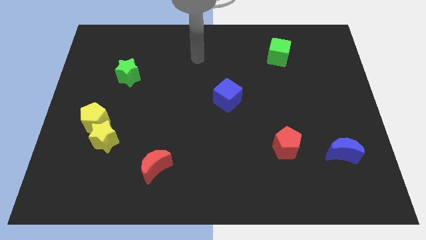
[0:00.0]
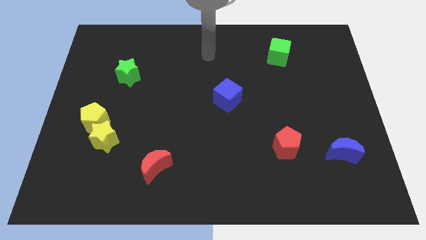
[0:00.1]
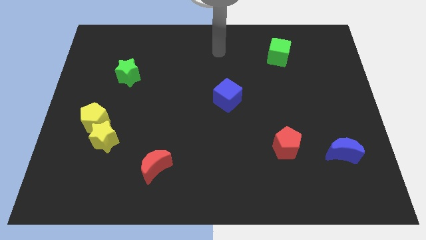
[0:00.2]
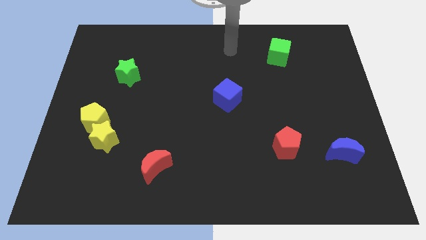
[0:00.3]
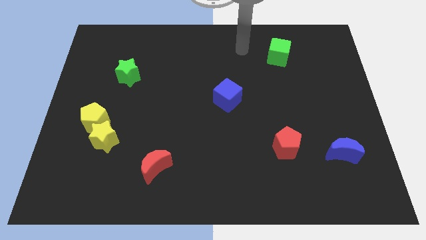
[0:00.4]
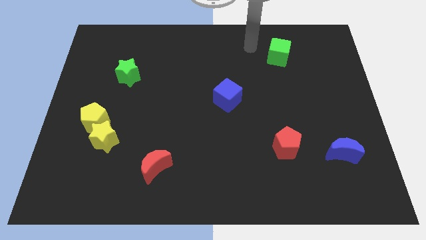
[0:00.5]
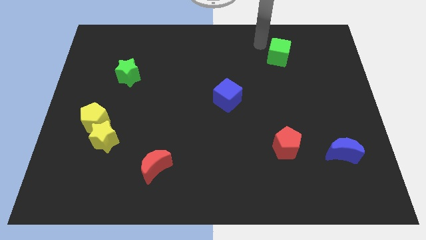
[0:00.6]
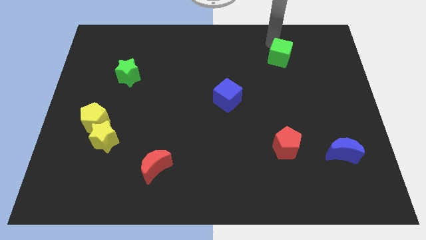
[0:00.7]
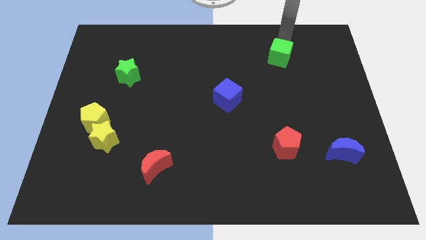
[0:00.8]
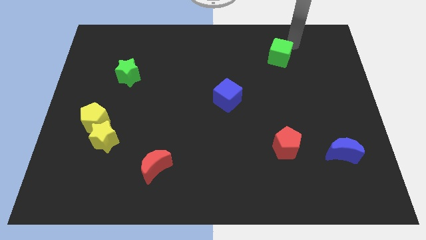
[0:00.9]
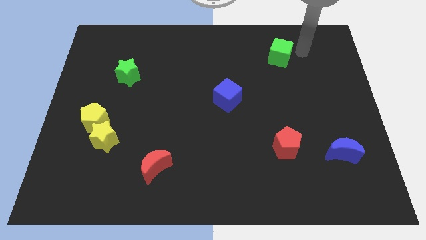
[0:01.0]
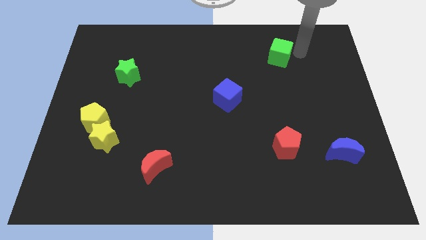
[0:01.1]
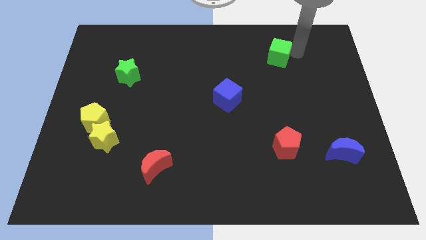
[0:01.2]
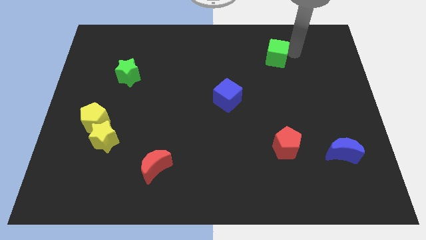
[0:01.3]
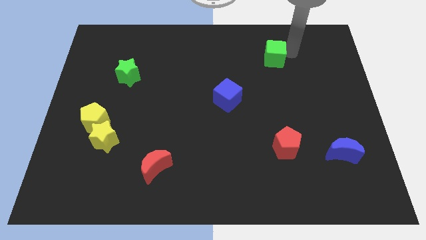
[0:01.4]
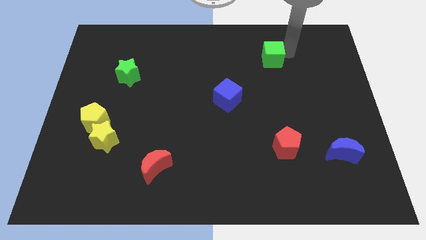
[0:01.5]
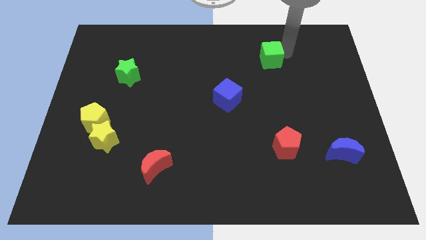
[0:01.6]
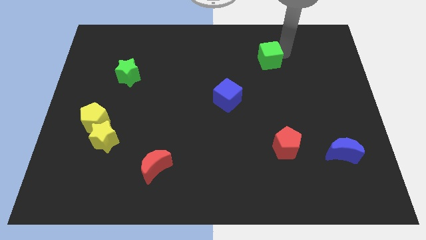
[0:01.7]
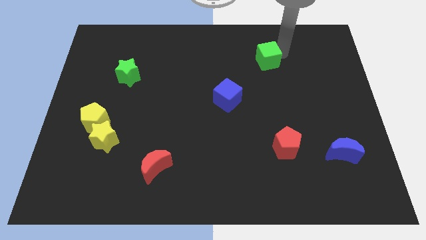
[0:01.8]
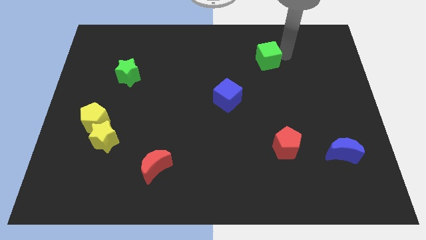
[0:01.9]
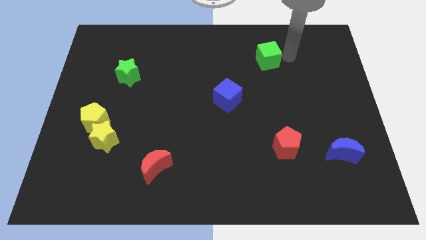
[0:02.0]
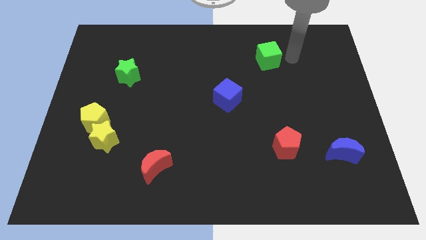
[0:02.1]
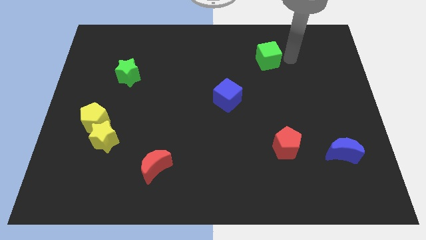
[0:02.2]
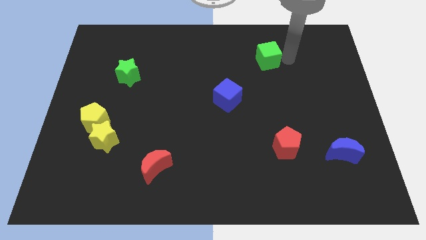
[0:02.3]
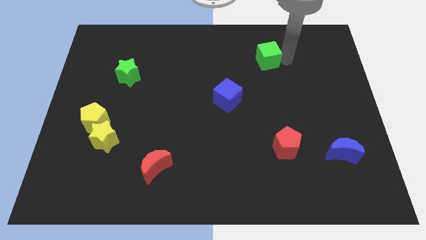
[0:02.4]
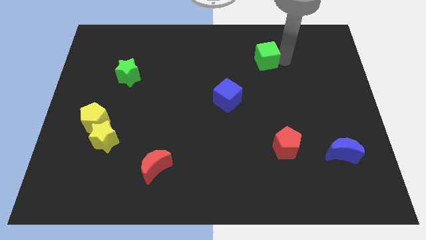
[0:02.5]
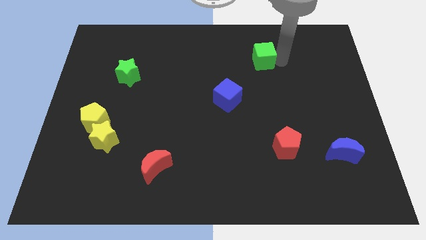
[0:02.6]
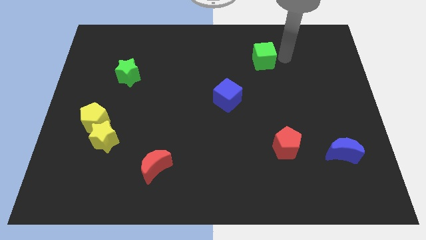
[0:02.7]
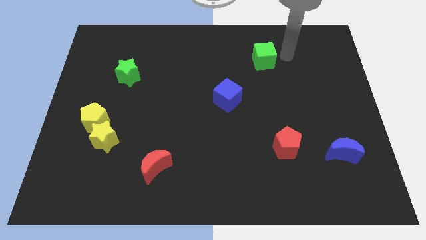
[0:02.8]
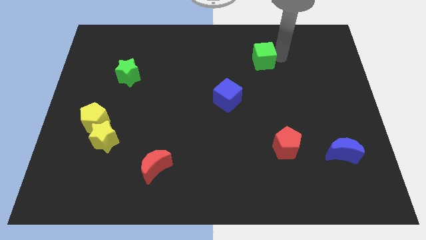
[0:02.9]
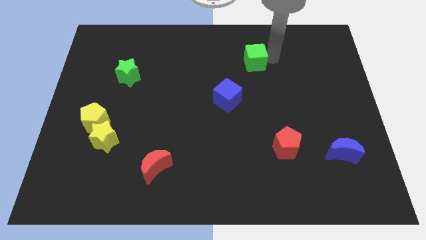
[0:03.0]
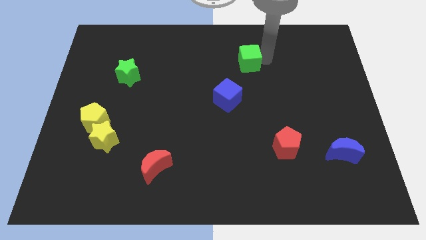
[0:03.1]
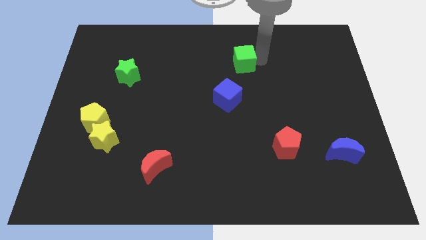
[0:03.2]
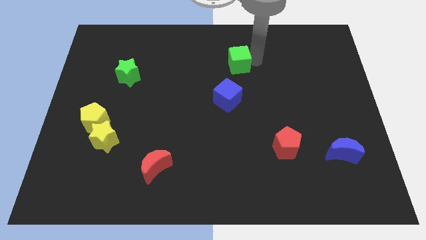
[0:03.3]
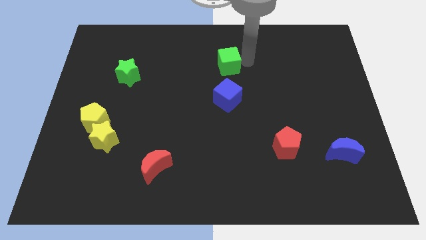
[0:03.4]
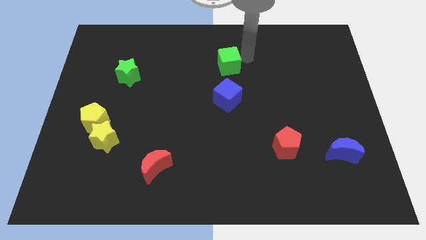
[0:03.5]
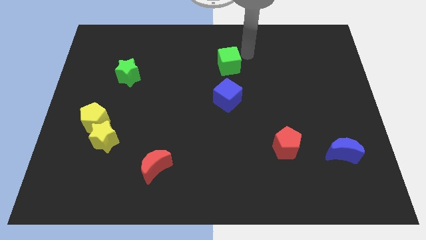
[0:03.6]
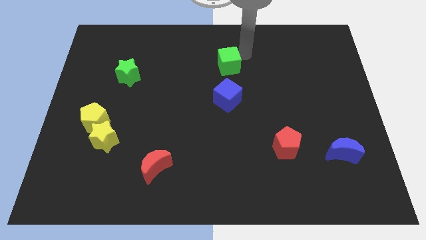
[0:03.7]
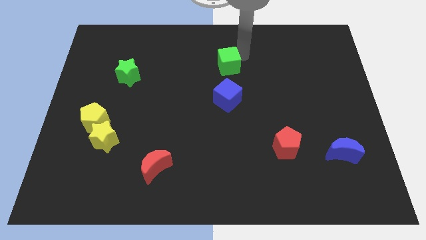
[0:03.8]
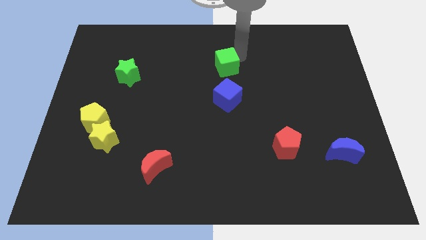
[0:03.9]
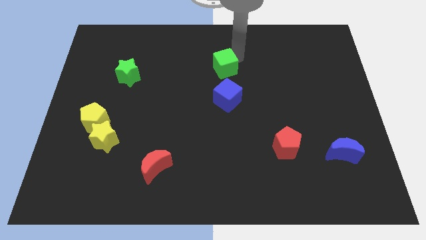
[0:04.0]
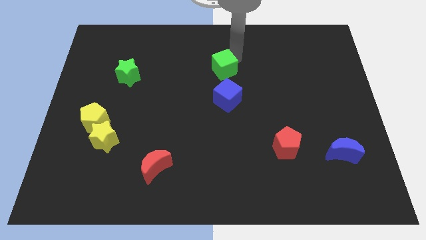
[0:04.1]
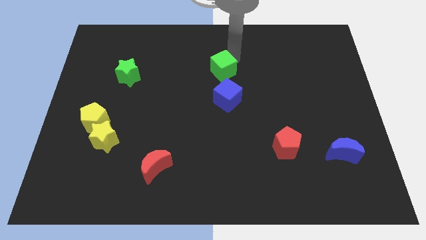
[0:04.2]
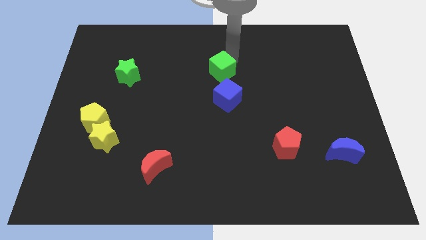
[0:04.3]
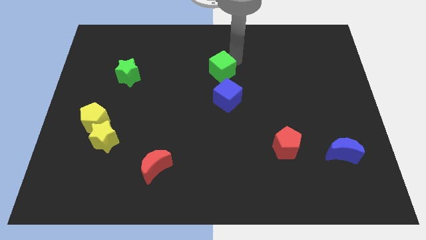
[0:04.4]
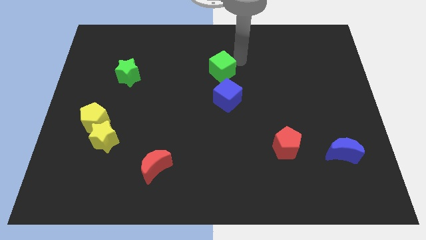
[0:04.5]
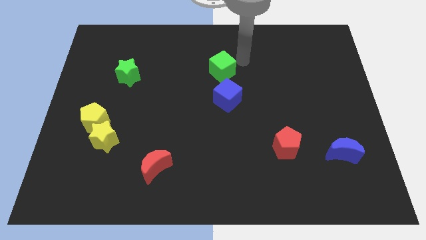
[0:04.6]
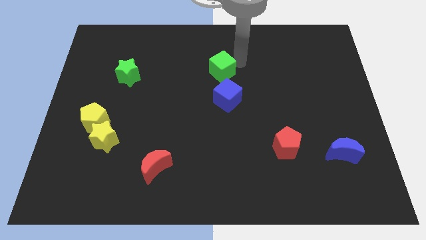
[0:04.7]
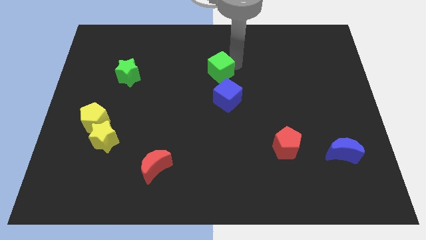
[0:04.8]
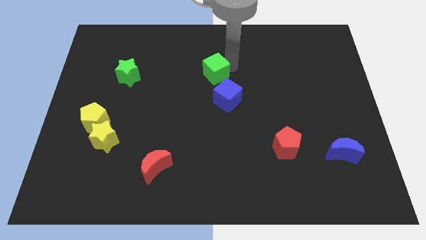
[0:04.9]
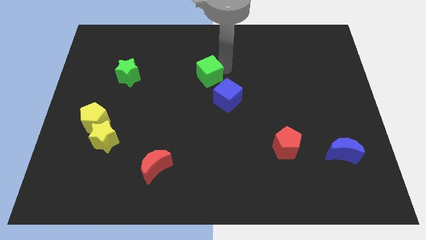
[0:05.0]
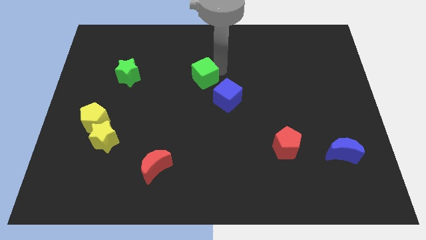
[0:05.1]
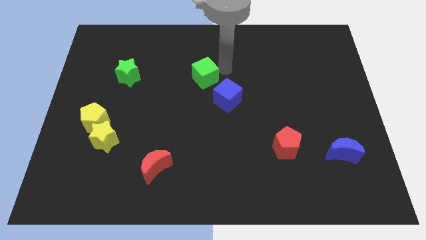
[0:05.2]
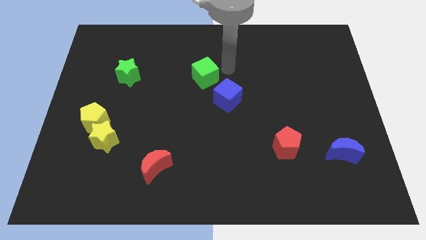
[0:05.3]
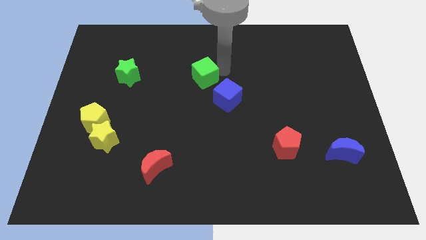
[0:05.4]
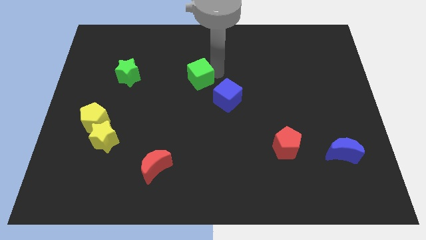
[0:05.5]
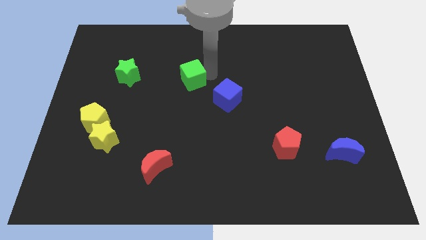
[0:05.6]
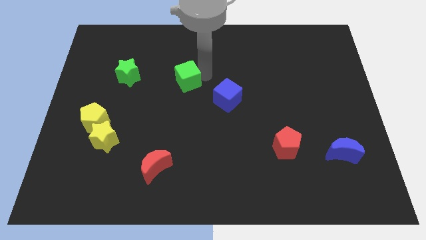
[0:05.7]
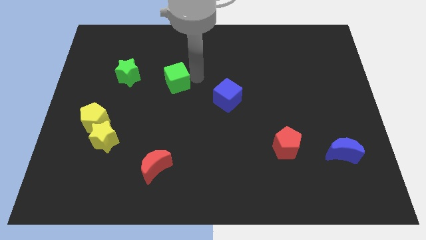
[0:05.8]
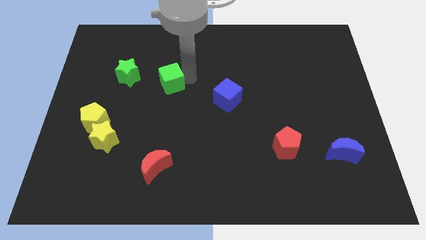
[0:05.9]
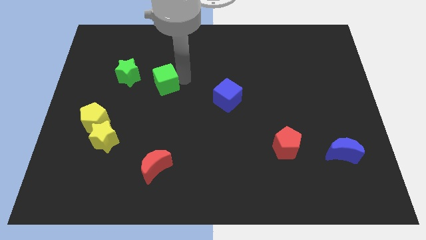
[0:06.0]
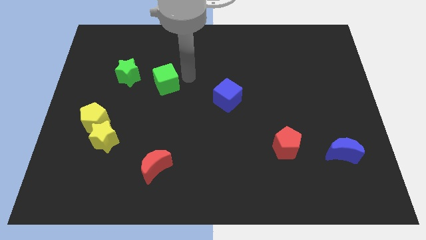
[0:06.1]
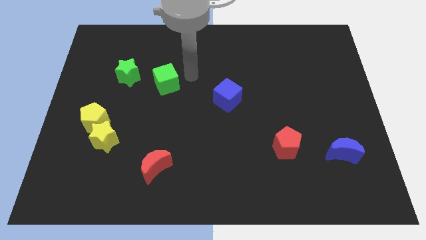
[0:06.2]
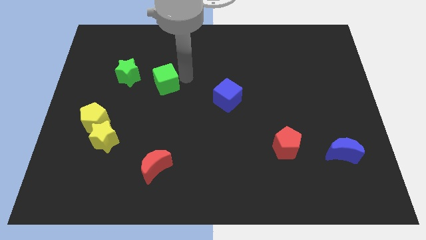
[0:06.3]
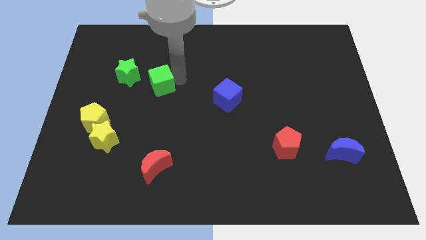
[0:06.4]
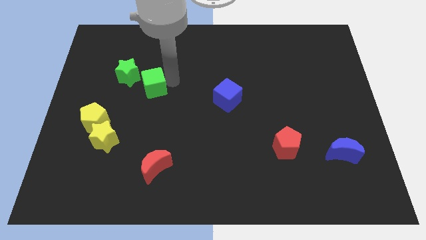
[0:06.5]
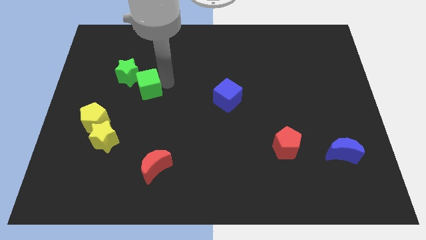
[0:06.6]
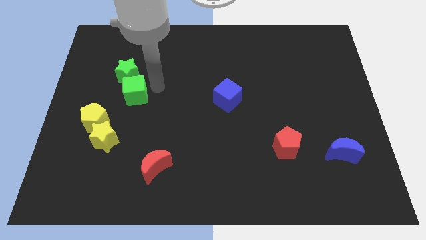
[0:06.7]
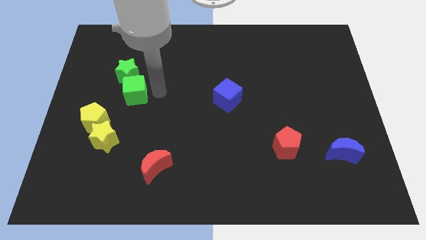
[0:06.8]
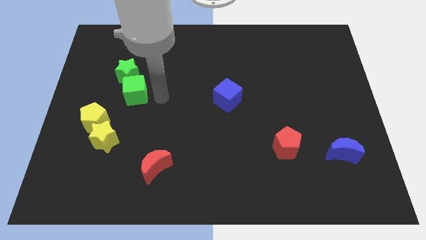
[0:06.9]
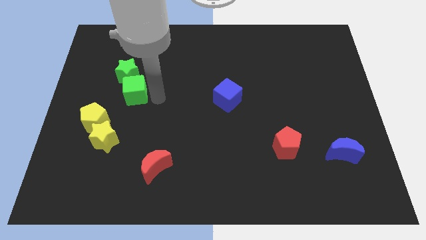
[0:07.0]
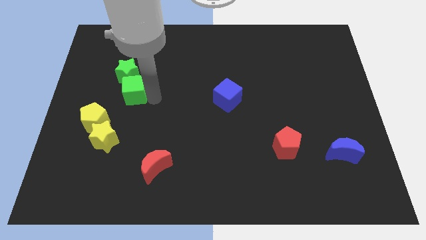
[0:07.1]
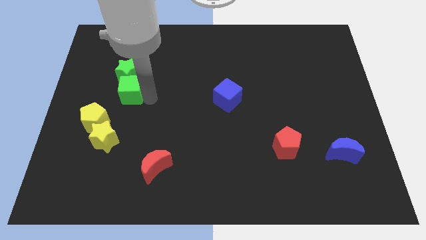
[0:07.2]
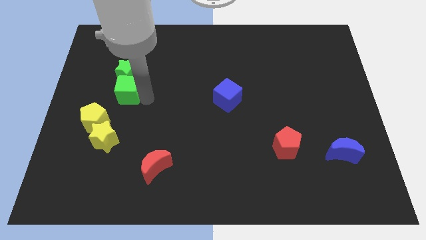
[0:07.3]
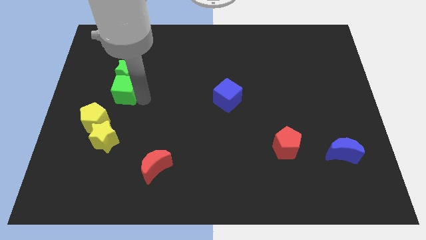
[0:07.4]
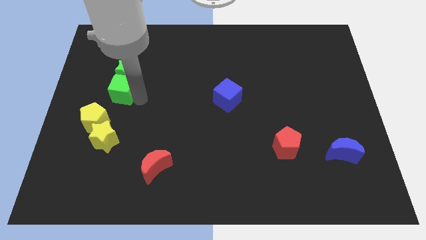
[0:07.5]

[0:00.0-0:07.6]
push the green cube to the top side of the yellow pentagon

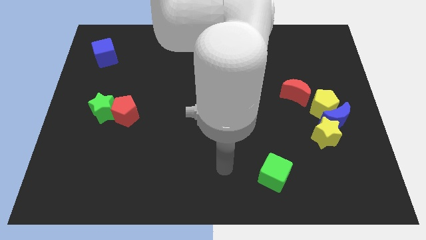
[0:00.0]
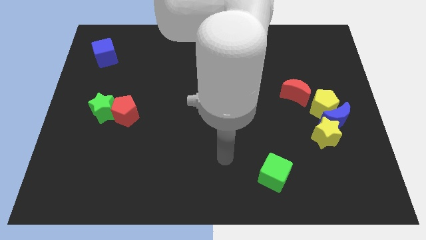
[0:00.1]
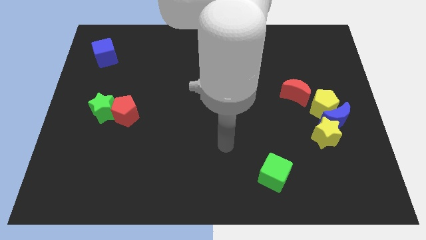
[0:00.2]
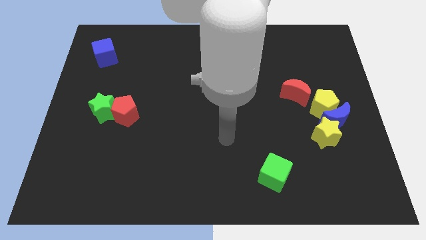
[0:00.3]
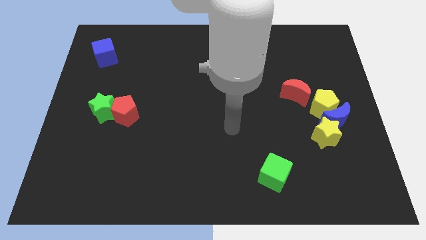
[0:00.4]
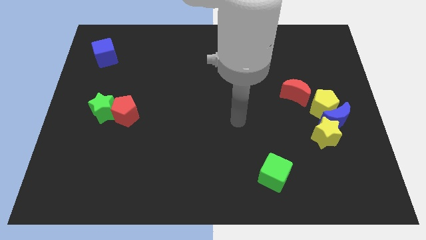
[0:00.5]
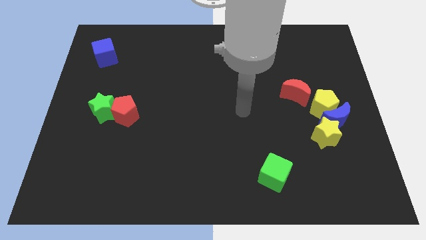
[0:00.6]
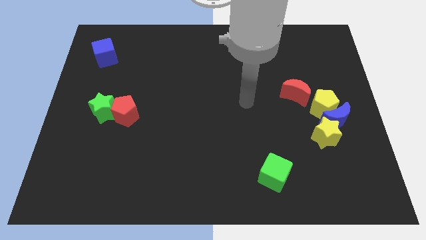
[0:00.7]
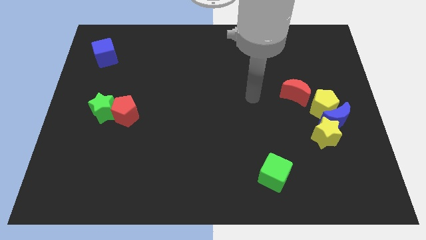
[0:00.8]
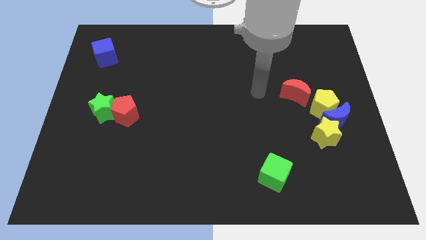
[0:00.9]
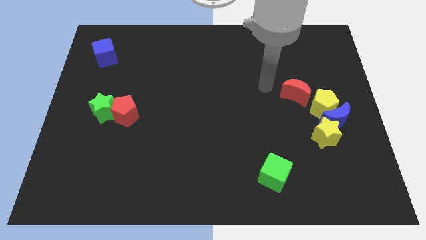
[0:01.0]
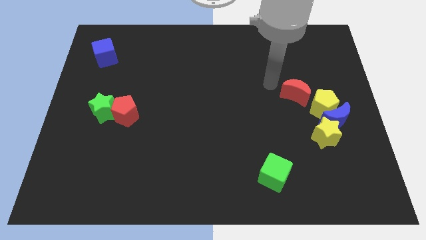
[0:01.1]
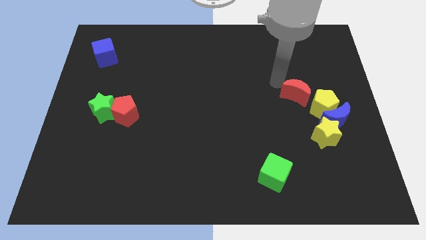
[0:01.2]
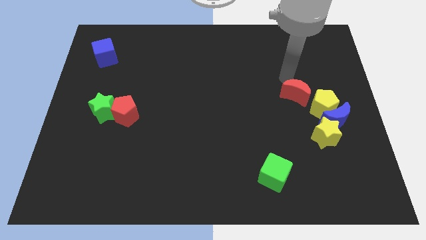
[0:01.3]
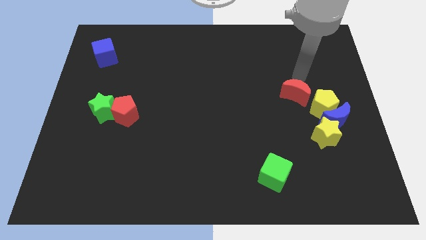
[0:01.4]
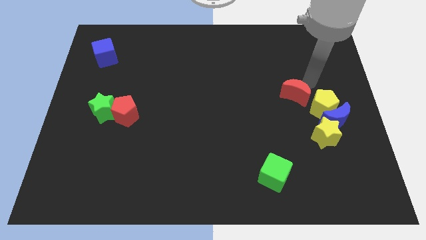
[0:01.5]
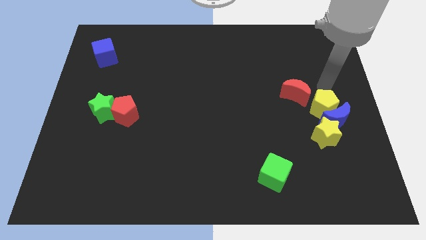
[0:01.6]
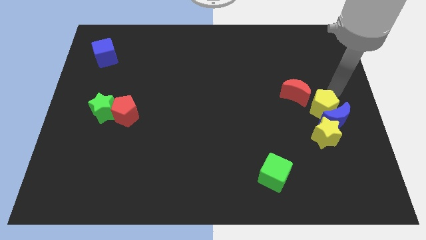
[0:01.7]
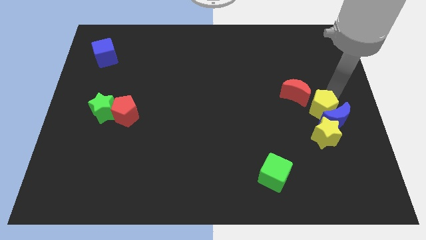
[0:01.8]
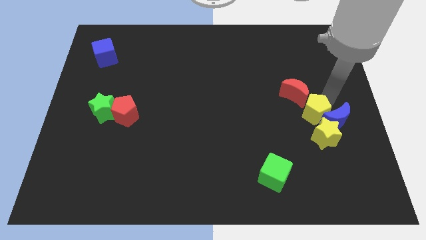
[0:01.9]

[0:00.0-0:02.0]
put the yellow pentagon below the red moon
